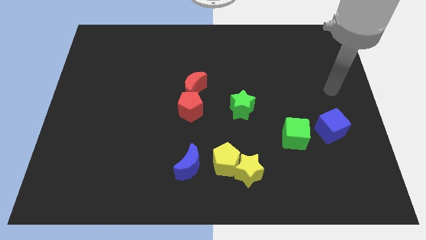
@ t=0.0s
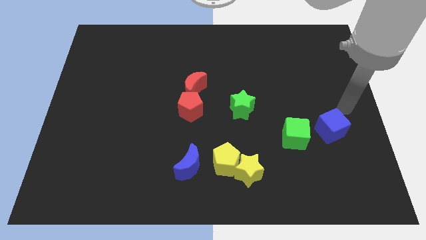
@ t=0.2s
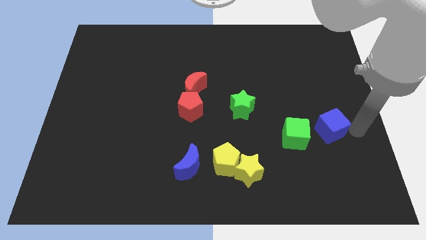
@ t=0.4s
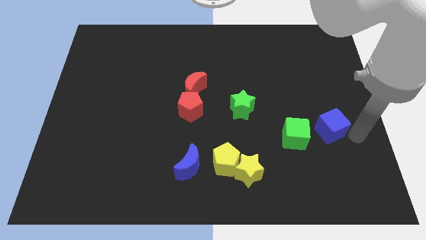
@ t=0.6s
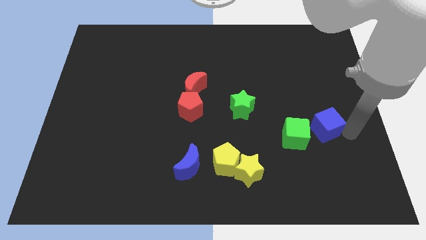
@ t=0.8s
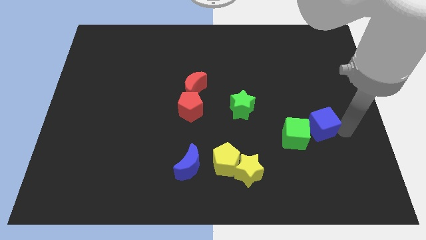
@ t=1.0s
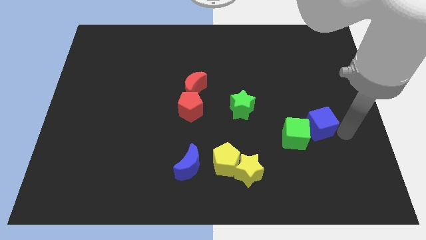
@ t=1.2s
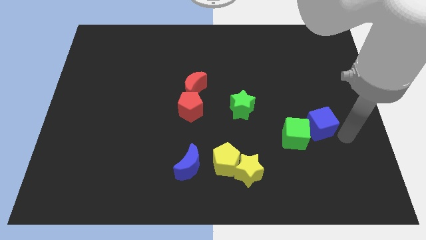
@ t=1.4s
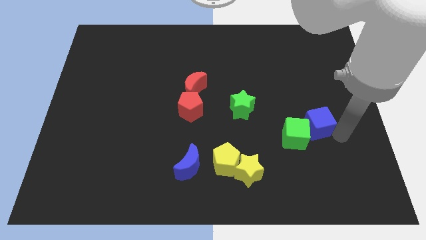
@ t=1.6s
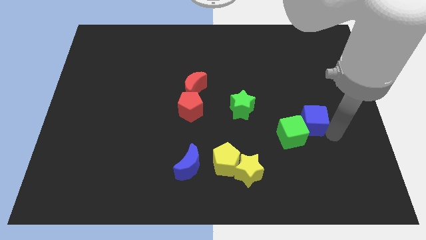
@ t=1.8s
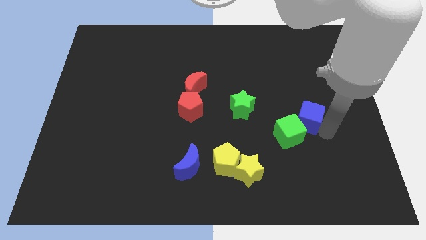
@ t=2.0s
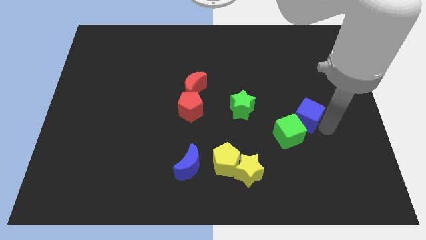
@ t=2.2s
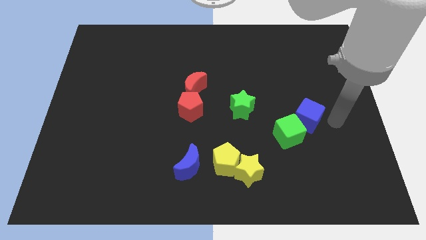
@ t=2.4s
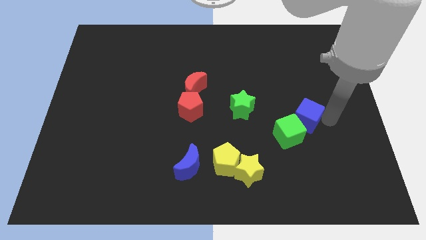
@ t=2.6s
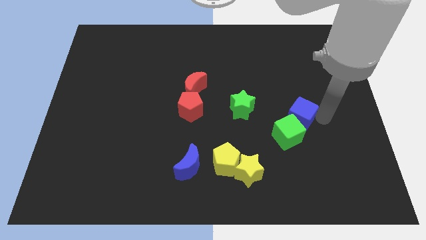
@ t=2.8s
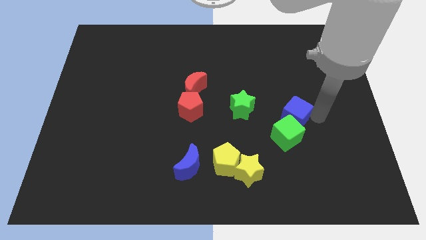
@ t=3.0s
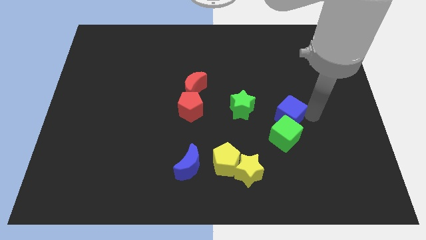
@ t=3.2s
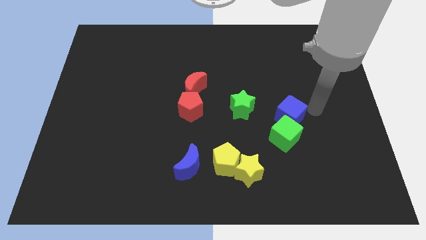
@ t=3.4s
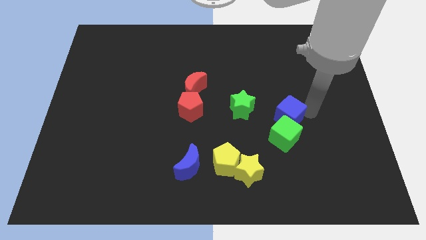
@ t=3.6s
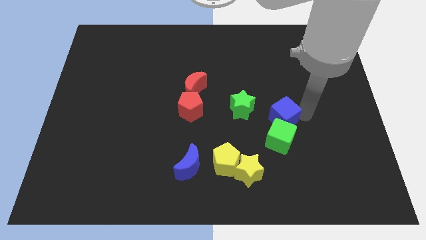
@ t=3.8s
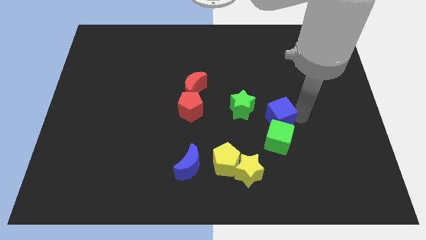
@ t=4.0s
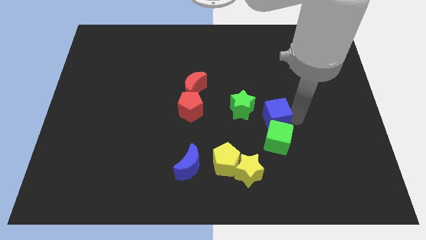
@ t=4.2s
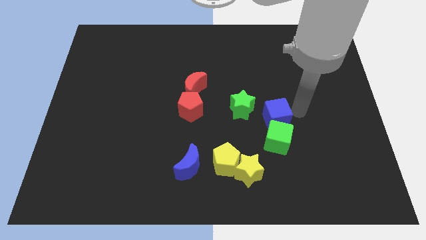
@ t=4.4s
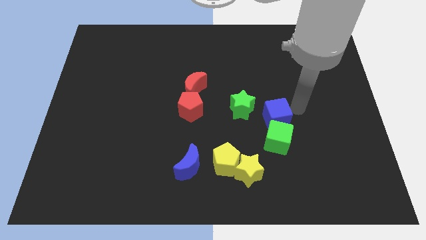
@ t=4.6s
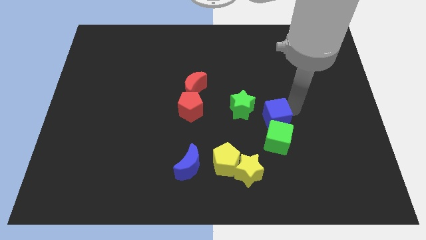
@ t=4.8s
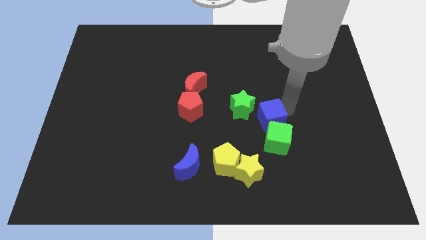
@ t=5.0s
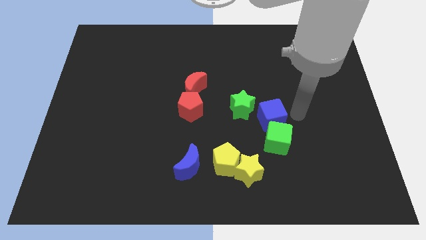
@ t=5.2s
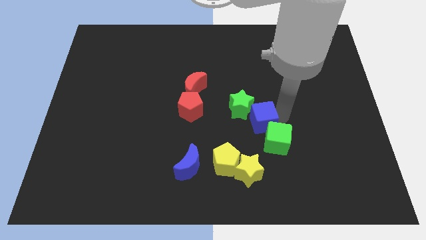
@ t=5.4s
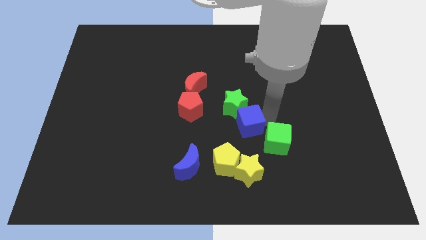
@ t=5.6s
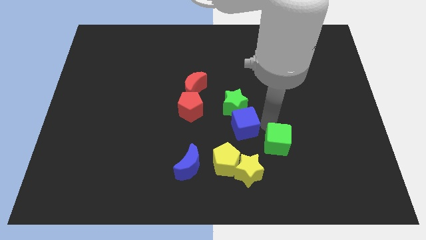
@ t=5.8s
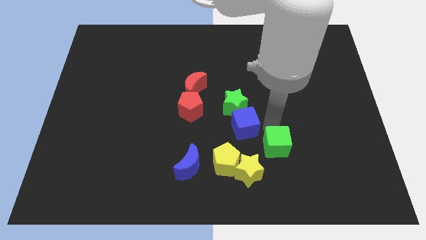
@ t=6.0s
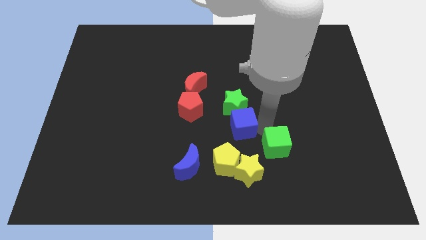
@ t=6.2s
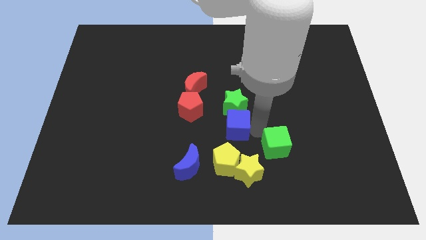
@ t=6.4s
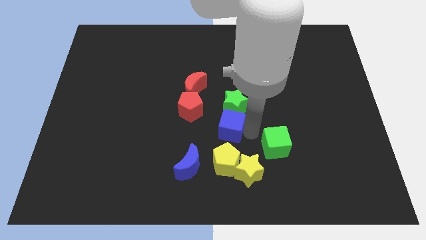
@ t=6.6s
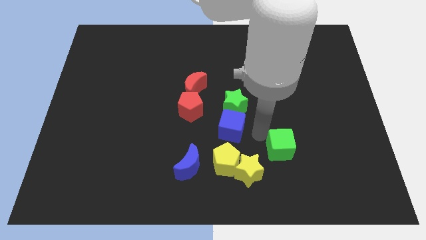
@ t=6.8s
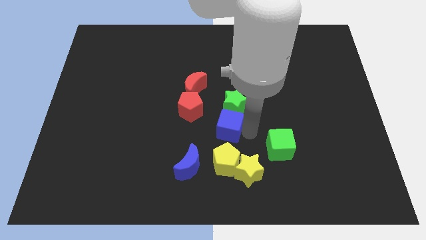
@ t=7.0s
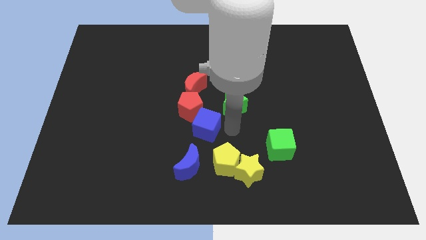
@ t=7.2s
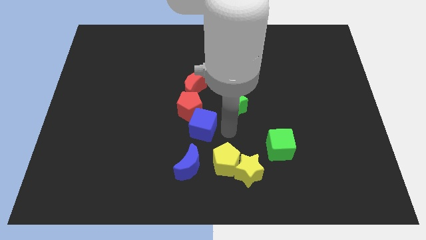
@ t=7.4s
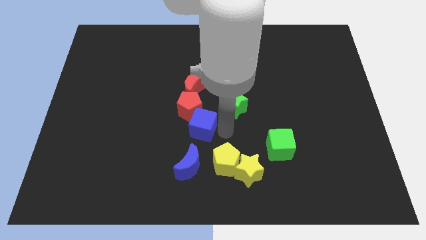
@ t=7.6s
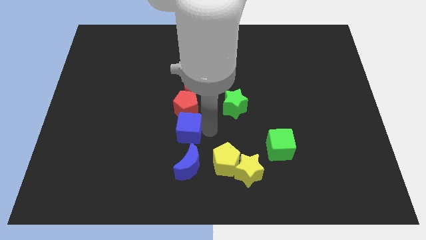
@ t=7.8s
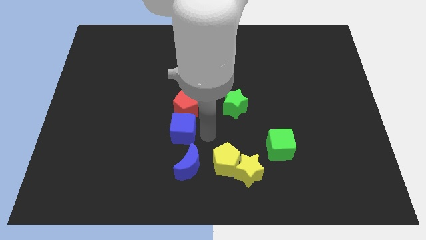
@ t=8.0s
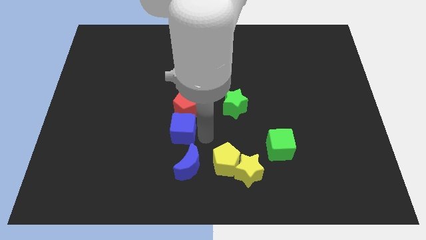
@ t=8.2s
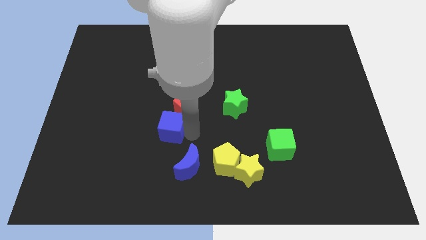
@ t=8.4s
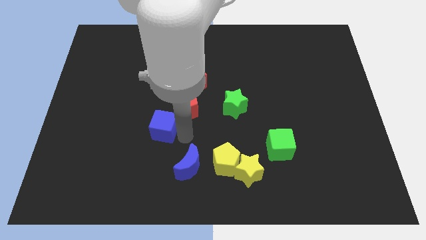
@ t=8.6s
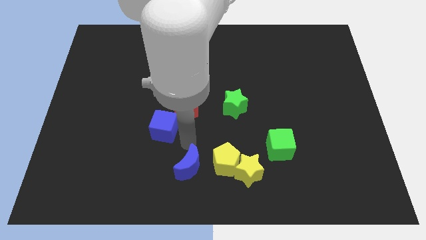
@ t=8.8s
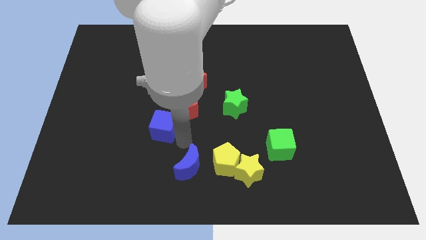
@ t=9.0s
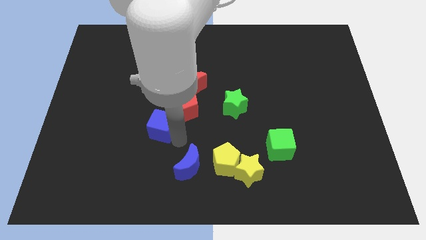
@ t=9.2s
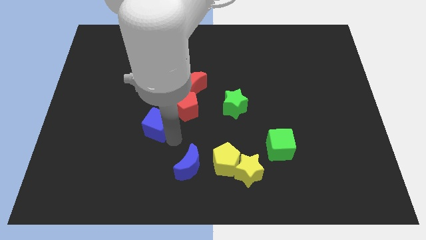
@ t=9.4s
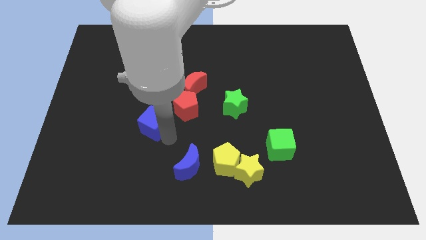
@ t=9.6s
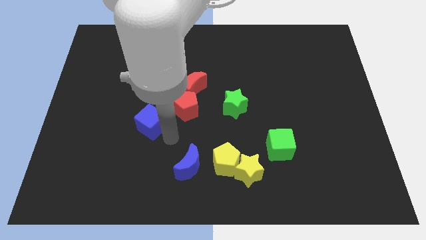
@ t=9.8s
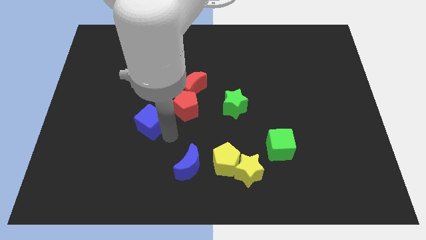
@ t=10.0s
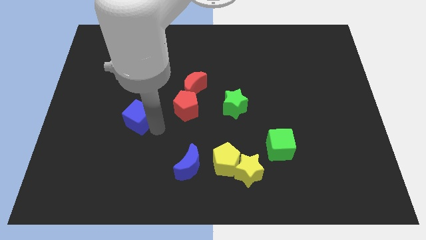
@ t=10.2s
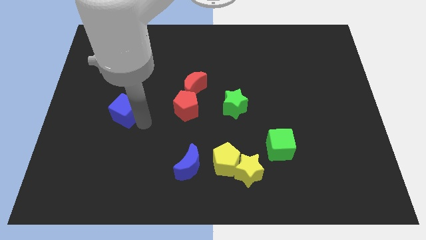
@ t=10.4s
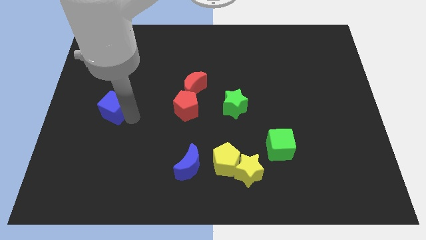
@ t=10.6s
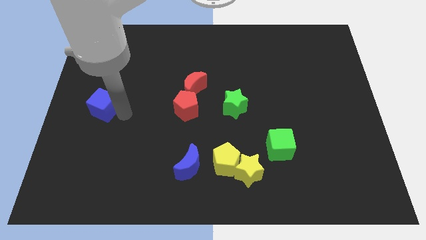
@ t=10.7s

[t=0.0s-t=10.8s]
move the blue cube to the left side

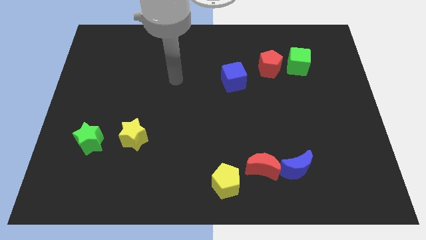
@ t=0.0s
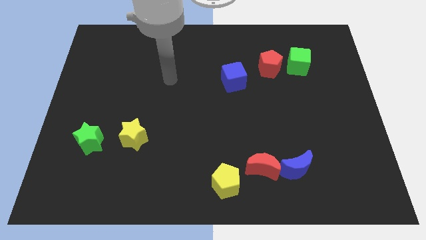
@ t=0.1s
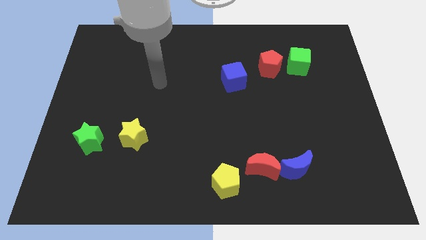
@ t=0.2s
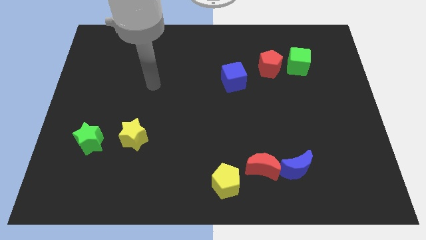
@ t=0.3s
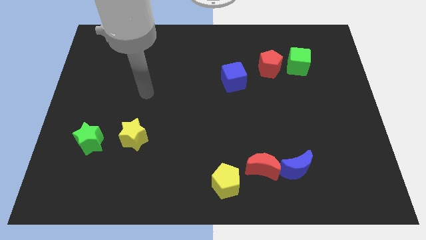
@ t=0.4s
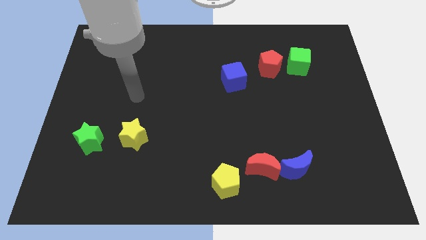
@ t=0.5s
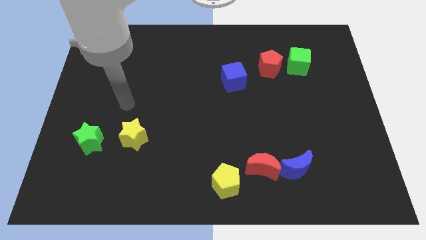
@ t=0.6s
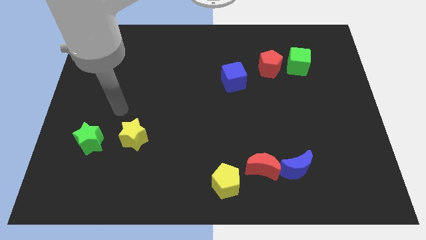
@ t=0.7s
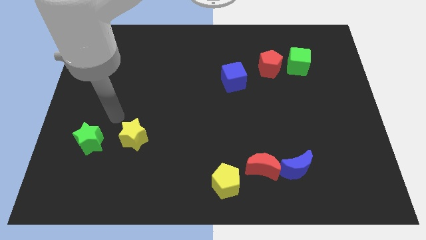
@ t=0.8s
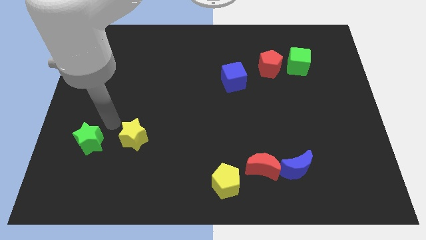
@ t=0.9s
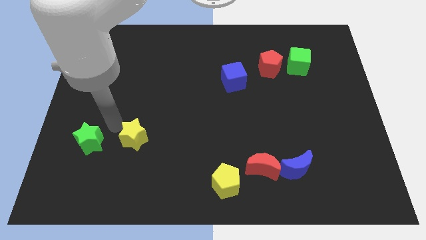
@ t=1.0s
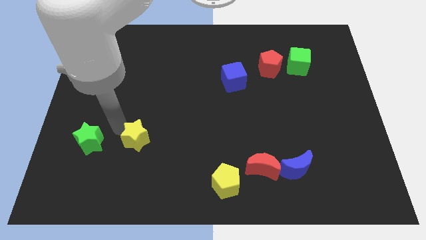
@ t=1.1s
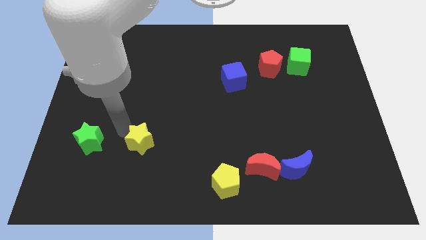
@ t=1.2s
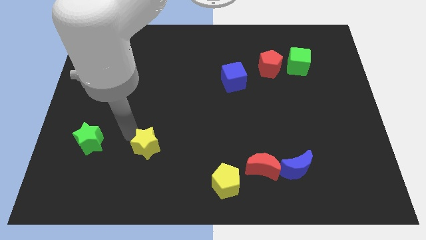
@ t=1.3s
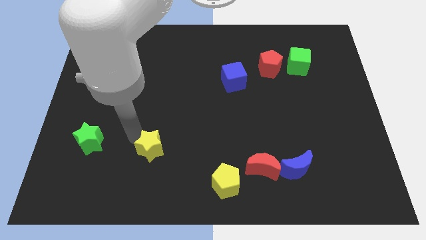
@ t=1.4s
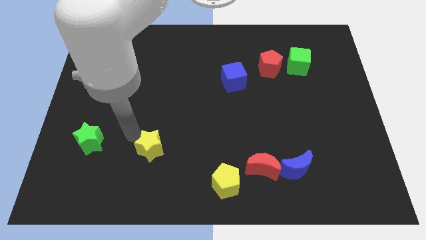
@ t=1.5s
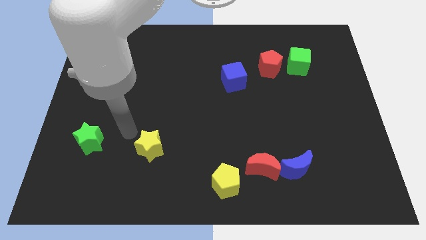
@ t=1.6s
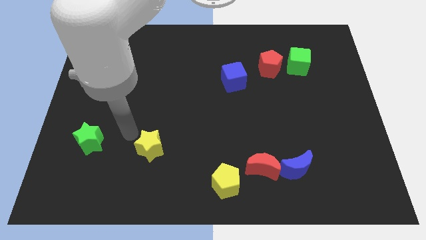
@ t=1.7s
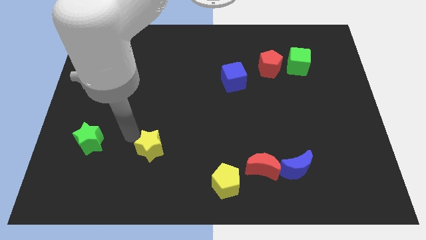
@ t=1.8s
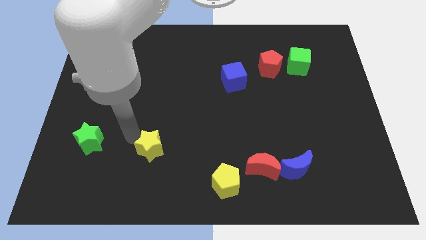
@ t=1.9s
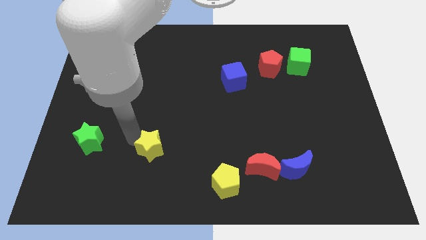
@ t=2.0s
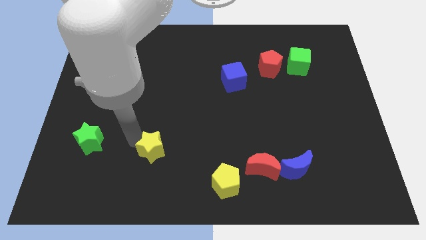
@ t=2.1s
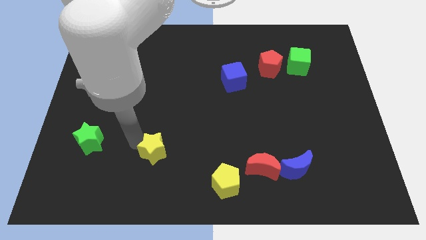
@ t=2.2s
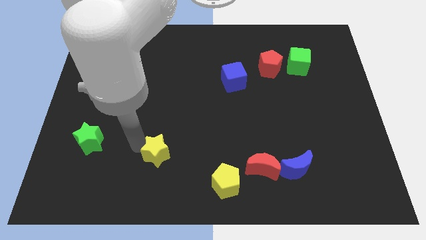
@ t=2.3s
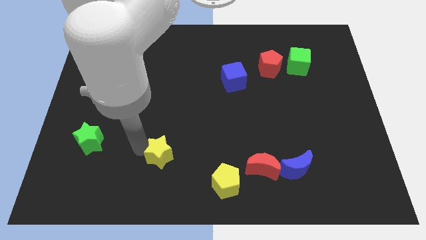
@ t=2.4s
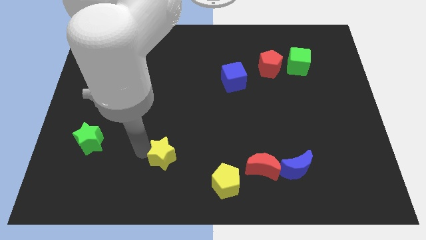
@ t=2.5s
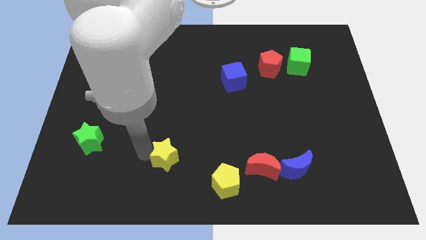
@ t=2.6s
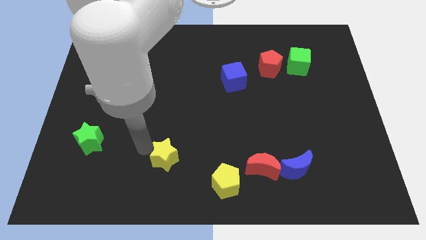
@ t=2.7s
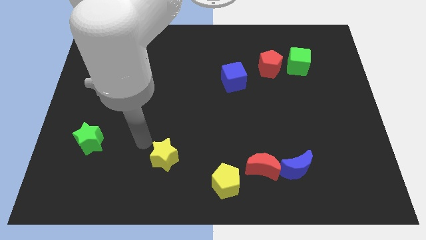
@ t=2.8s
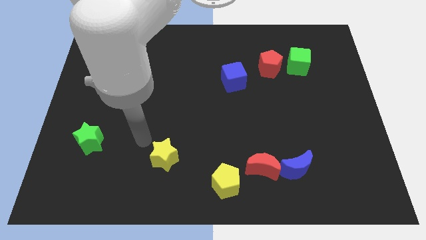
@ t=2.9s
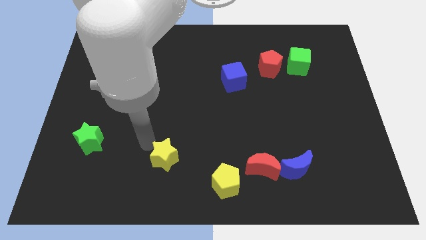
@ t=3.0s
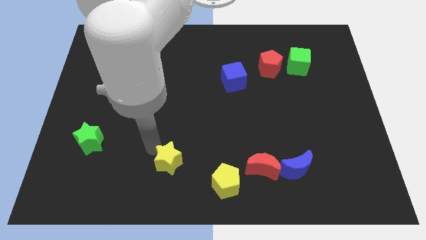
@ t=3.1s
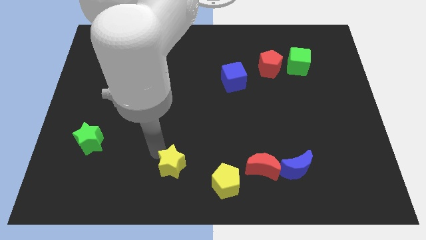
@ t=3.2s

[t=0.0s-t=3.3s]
slide the yellow star to the bottom side
